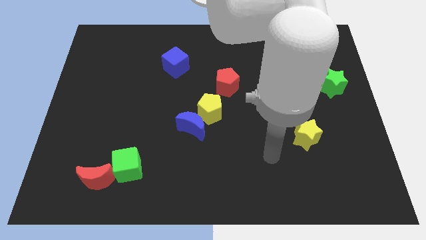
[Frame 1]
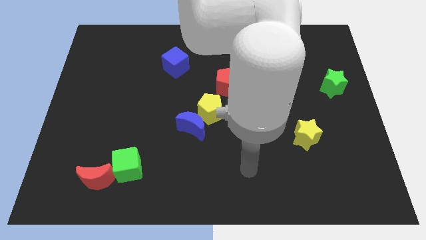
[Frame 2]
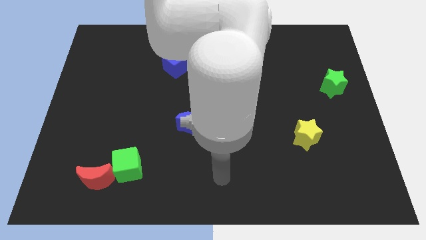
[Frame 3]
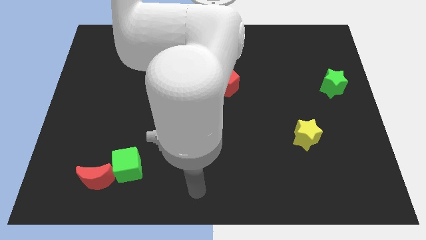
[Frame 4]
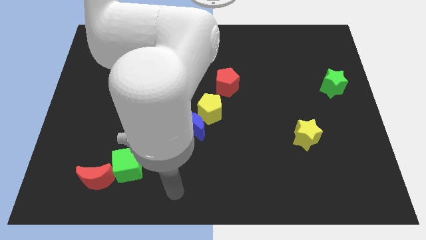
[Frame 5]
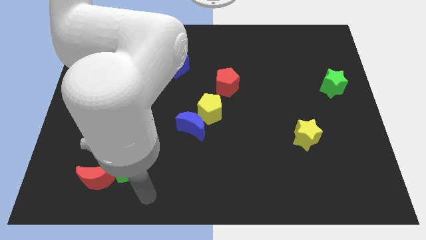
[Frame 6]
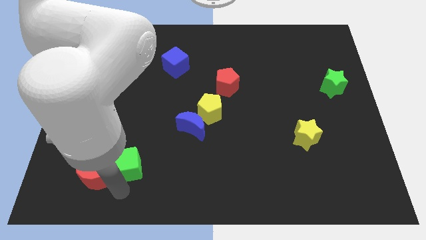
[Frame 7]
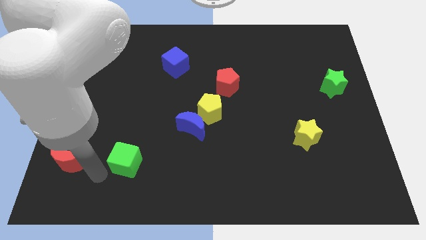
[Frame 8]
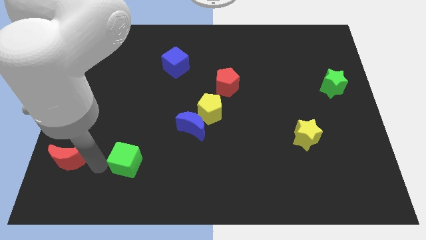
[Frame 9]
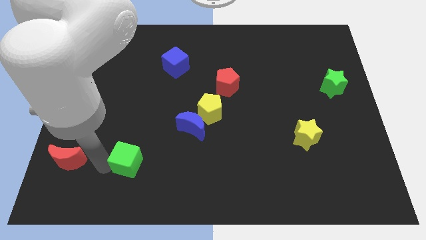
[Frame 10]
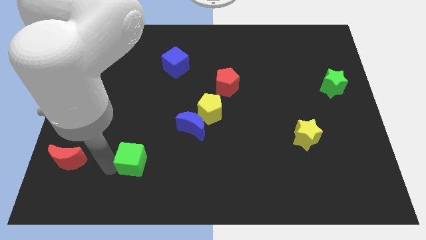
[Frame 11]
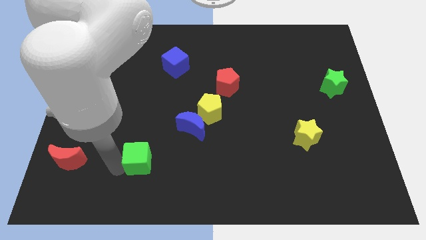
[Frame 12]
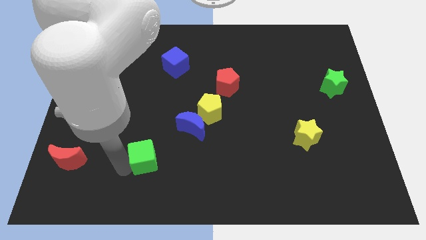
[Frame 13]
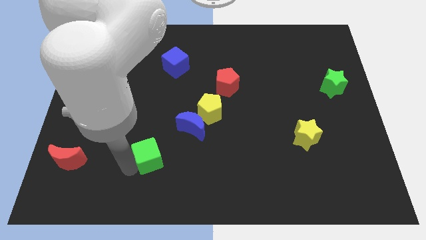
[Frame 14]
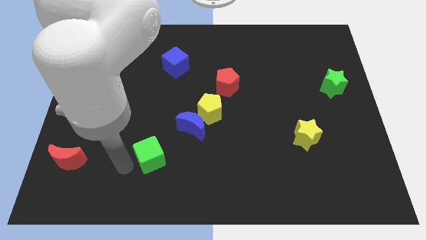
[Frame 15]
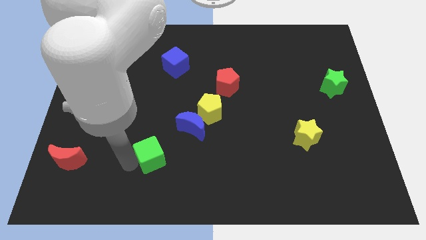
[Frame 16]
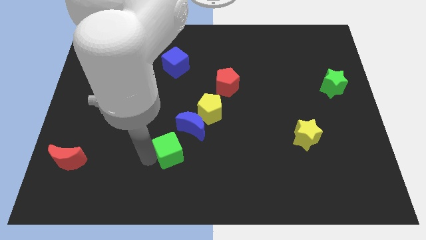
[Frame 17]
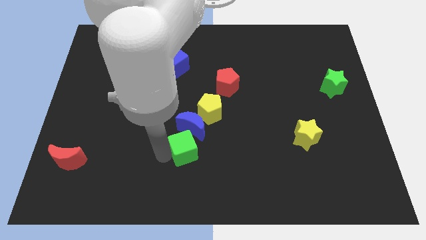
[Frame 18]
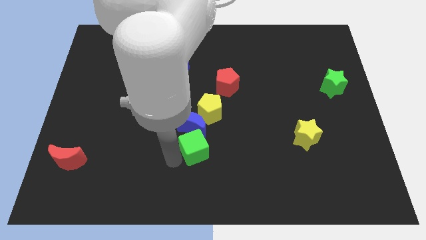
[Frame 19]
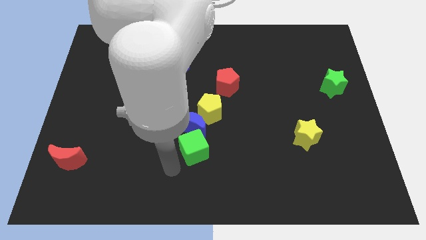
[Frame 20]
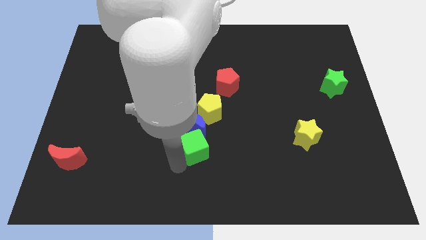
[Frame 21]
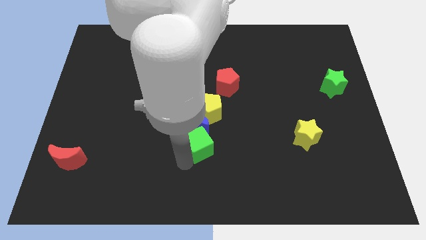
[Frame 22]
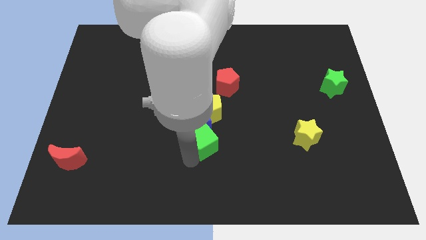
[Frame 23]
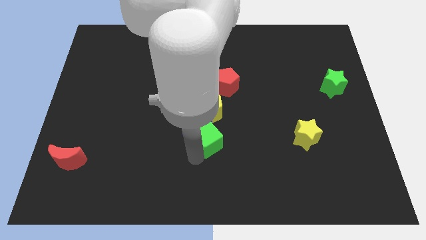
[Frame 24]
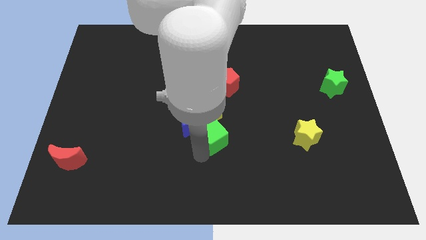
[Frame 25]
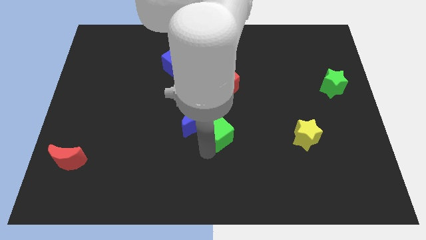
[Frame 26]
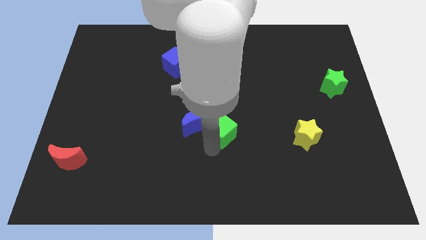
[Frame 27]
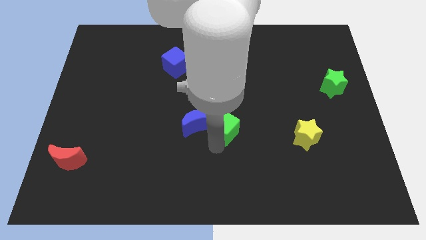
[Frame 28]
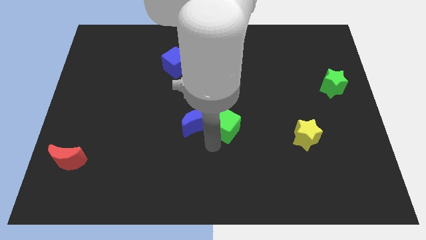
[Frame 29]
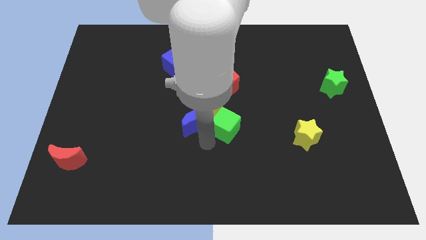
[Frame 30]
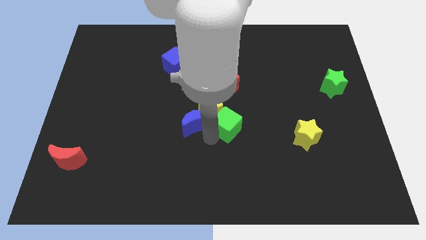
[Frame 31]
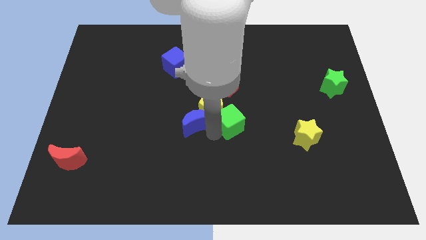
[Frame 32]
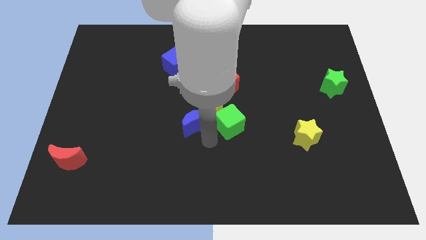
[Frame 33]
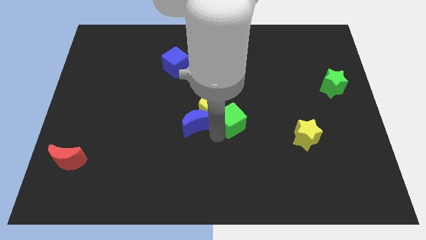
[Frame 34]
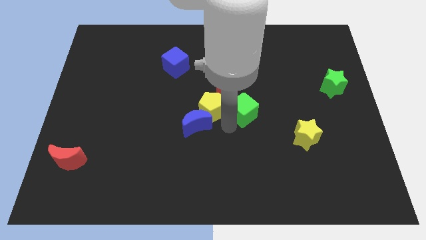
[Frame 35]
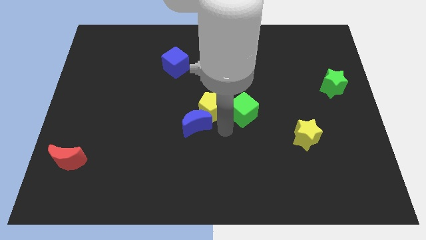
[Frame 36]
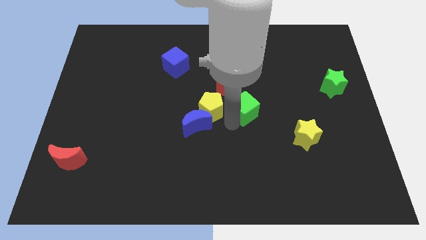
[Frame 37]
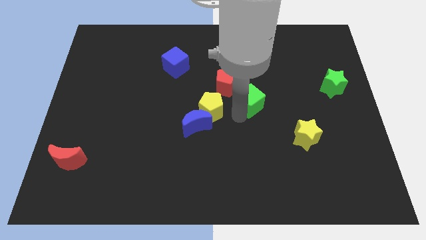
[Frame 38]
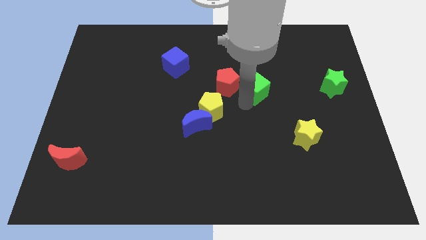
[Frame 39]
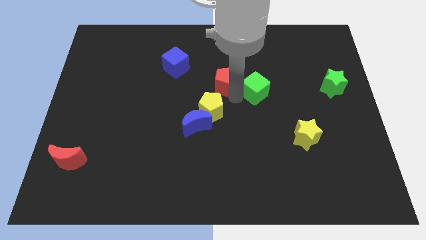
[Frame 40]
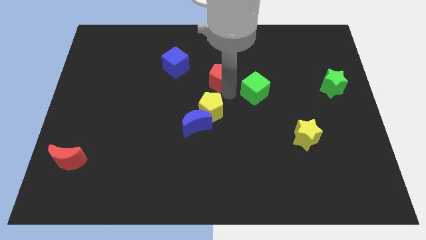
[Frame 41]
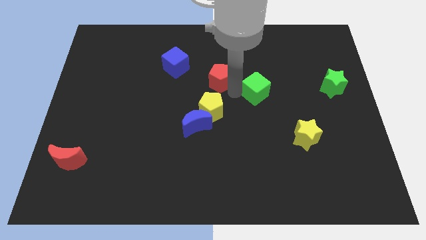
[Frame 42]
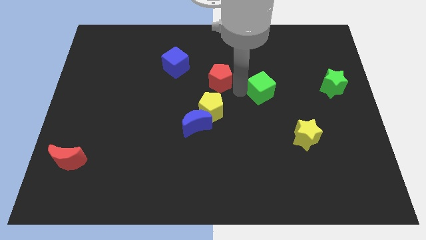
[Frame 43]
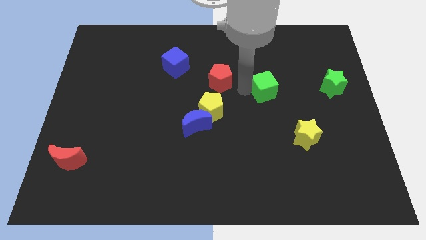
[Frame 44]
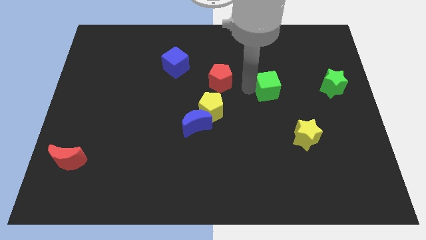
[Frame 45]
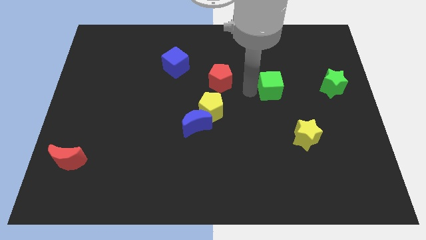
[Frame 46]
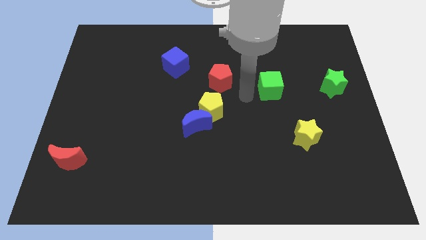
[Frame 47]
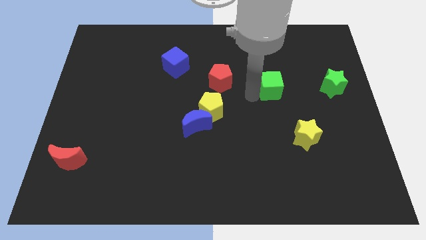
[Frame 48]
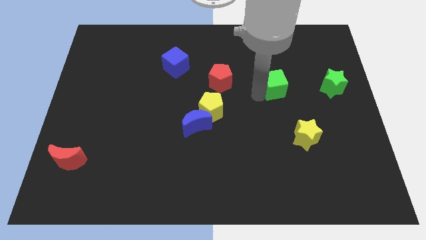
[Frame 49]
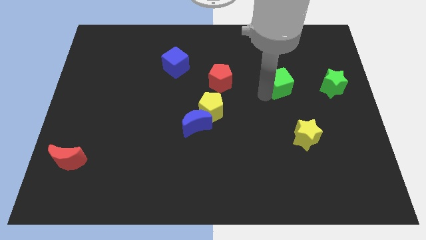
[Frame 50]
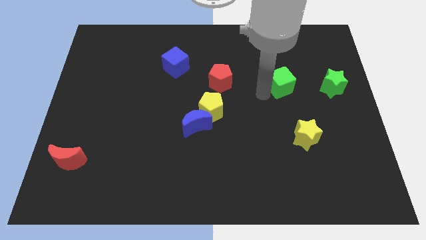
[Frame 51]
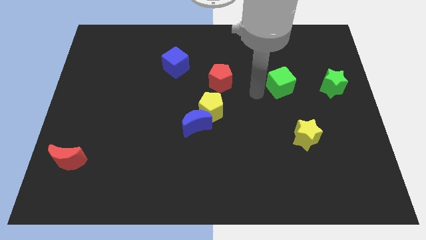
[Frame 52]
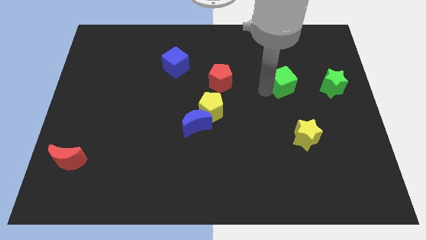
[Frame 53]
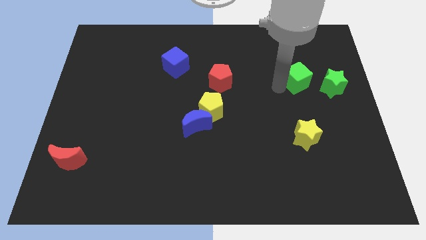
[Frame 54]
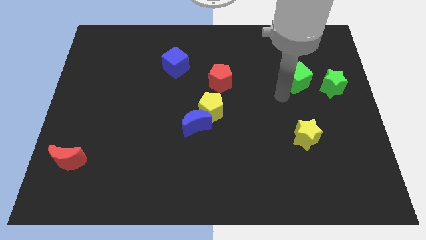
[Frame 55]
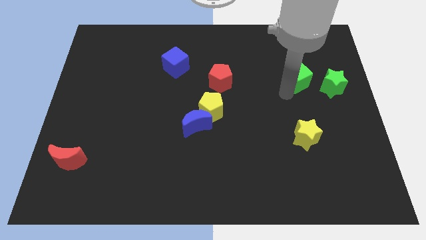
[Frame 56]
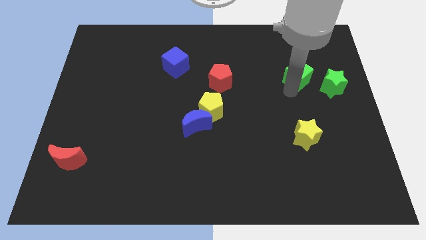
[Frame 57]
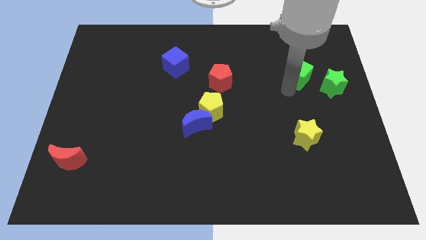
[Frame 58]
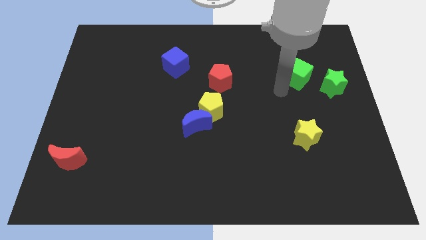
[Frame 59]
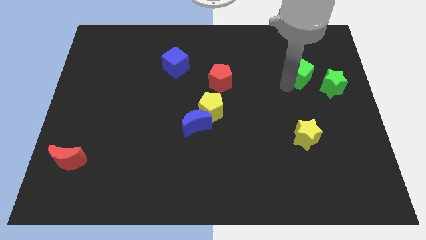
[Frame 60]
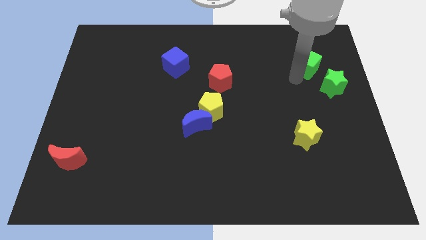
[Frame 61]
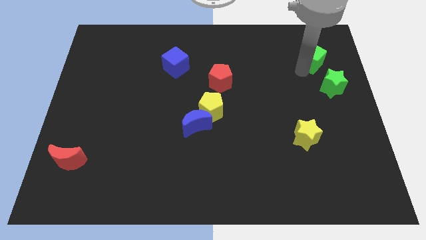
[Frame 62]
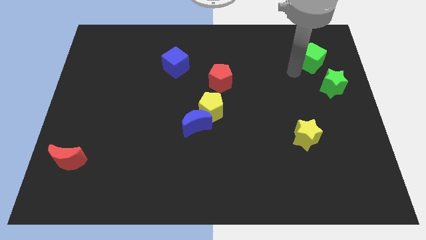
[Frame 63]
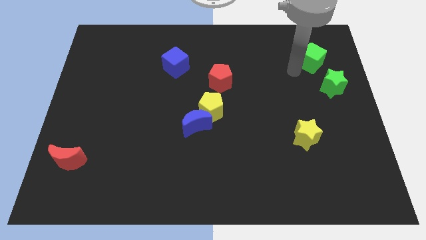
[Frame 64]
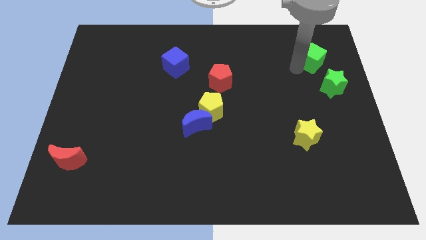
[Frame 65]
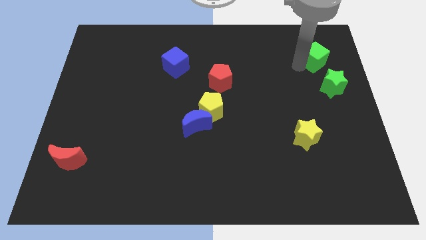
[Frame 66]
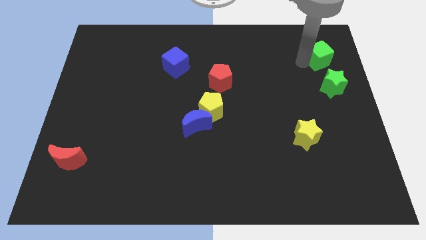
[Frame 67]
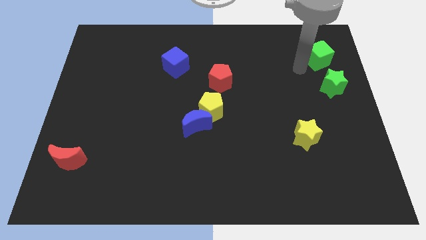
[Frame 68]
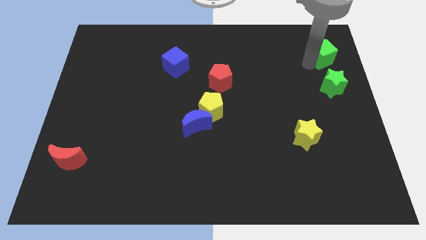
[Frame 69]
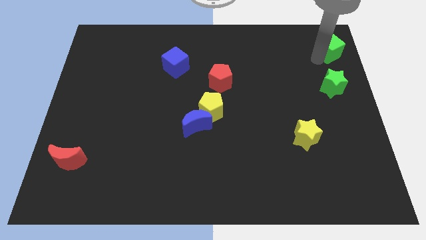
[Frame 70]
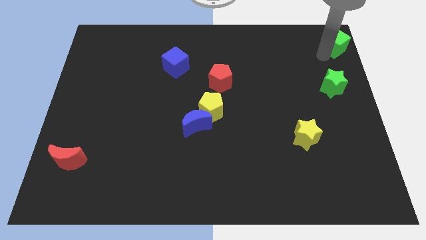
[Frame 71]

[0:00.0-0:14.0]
put the green cube to the top right
